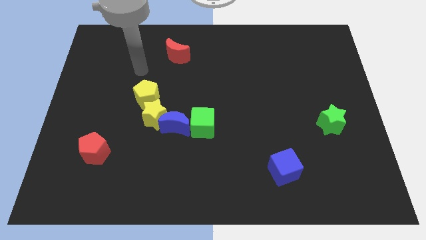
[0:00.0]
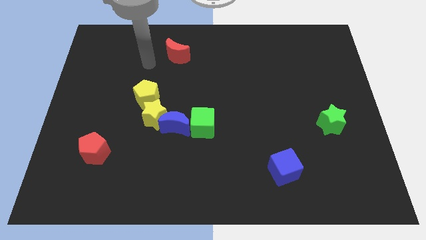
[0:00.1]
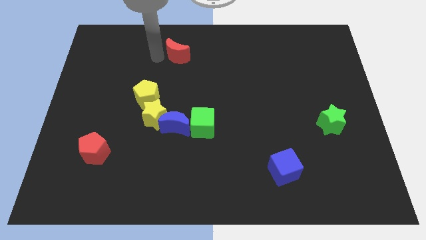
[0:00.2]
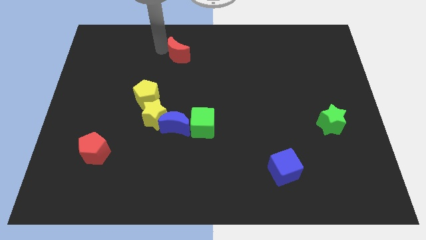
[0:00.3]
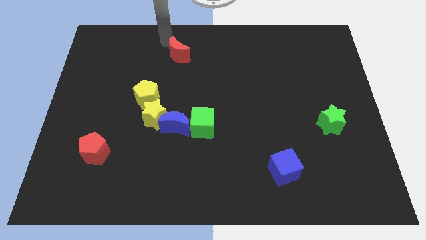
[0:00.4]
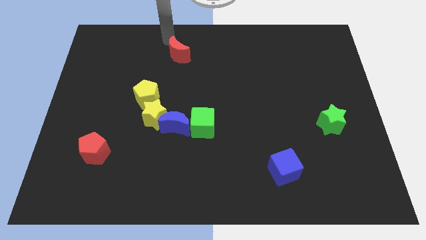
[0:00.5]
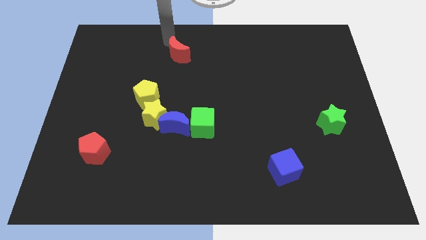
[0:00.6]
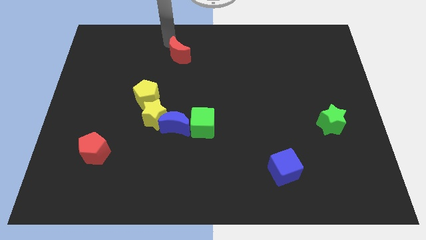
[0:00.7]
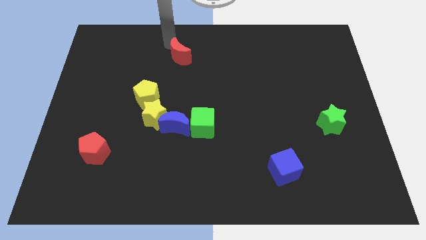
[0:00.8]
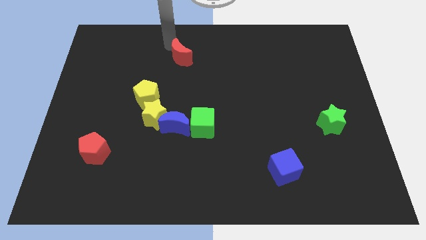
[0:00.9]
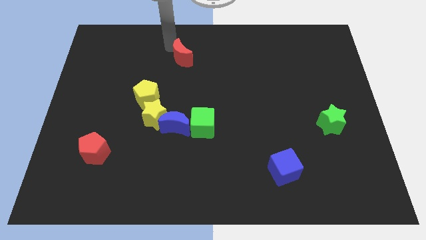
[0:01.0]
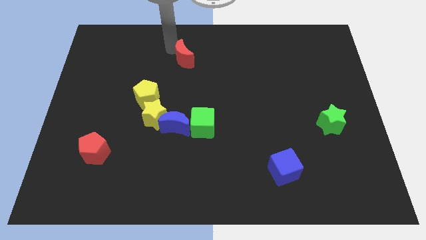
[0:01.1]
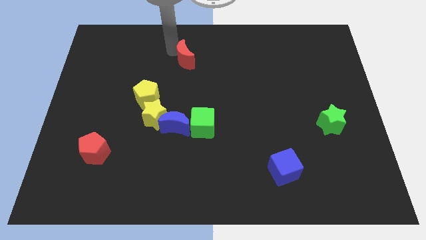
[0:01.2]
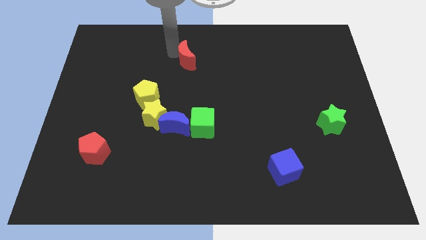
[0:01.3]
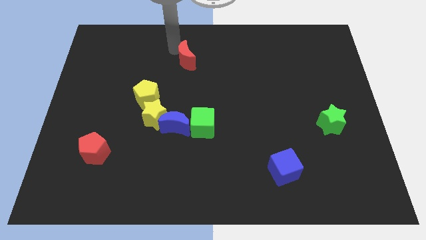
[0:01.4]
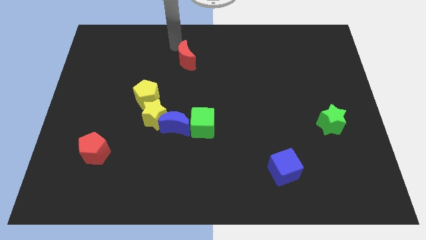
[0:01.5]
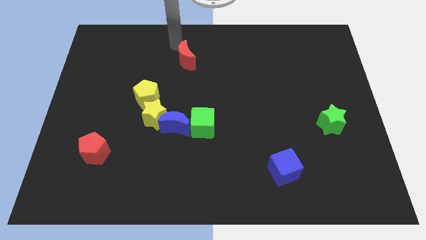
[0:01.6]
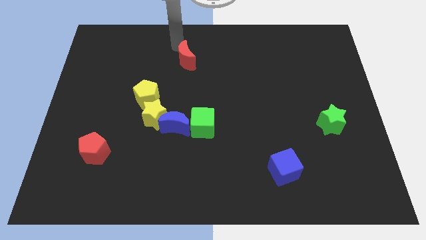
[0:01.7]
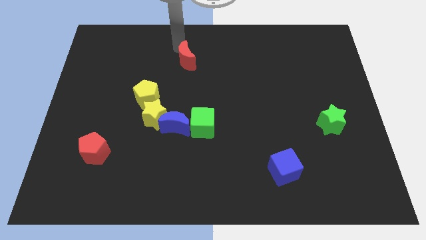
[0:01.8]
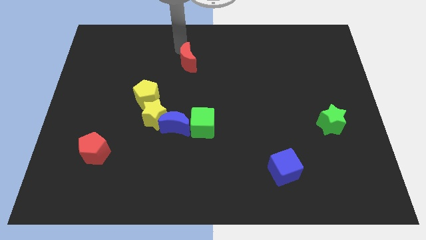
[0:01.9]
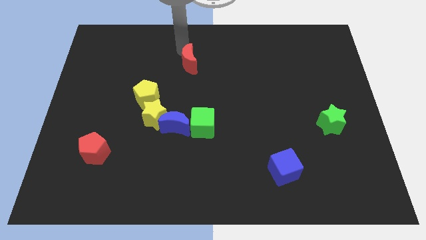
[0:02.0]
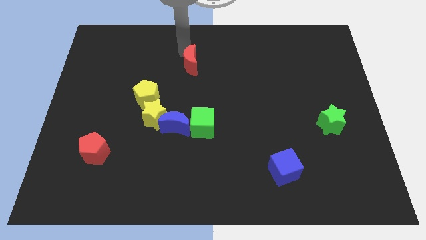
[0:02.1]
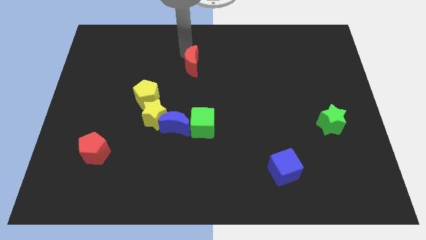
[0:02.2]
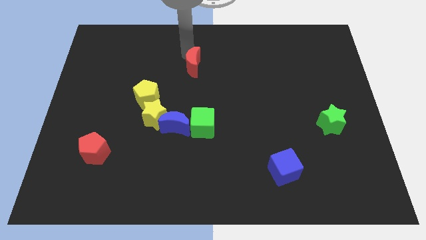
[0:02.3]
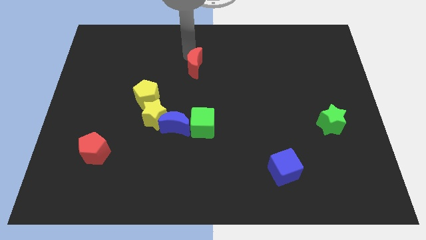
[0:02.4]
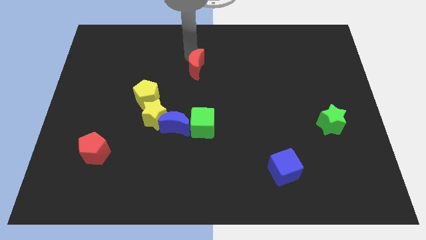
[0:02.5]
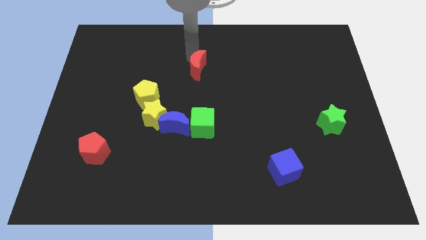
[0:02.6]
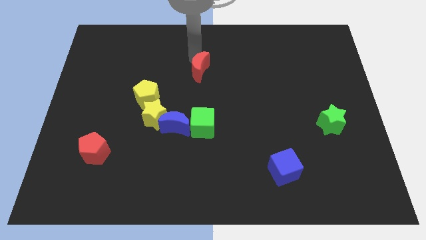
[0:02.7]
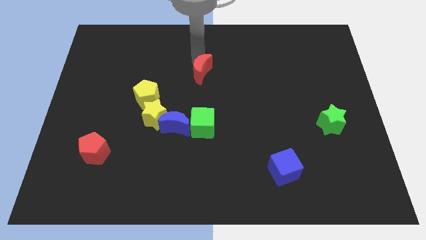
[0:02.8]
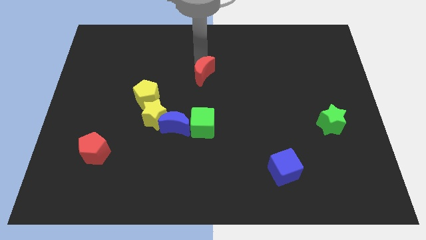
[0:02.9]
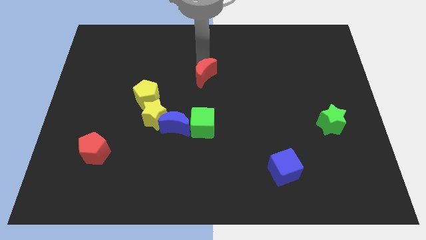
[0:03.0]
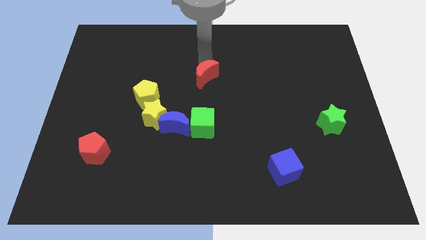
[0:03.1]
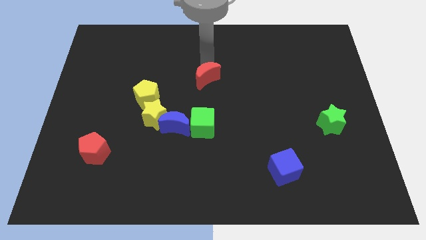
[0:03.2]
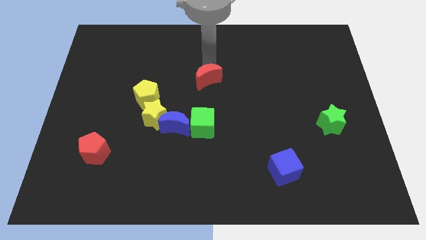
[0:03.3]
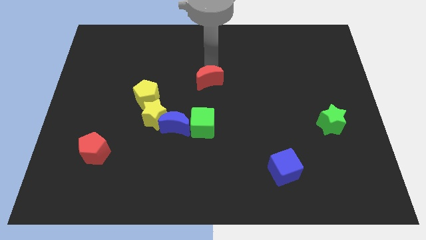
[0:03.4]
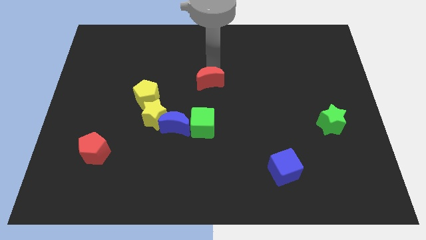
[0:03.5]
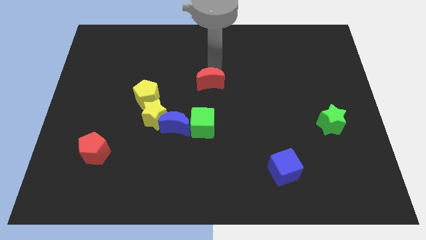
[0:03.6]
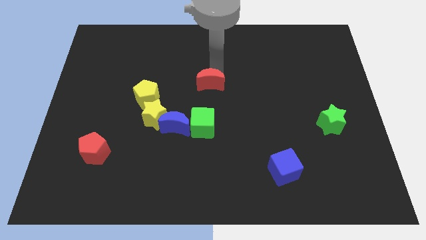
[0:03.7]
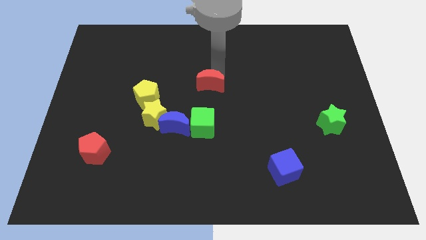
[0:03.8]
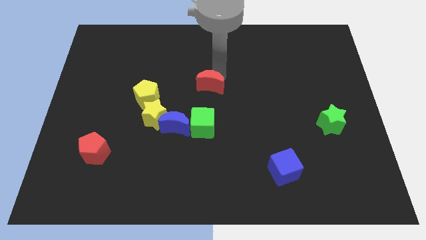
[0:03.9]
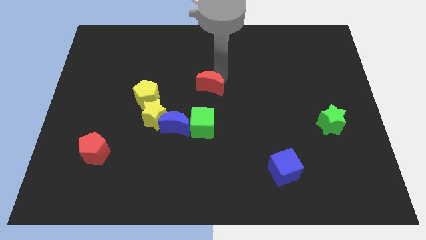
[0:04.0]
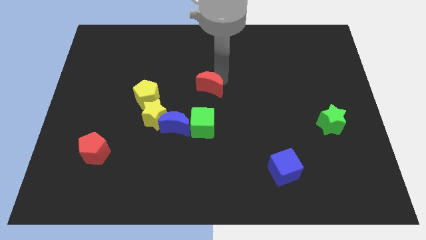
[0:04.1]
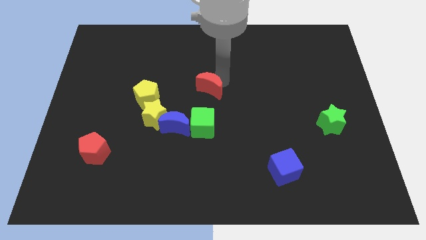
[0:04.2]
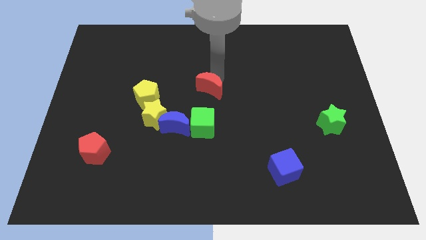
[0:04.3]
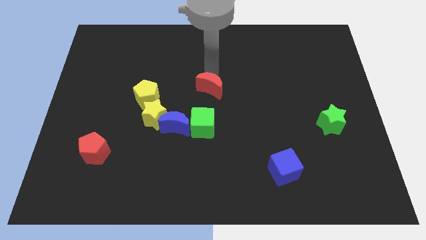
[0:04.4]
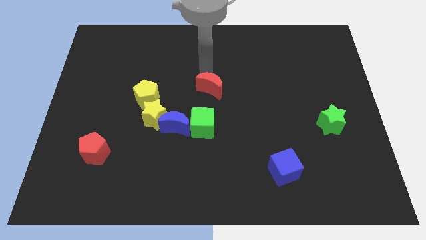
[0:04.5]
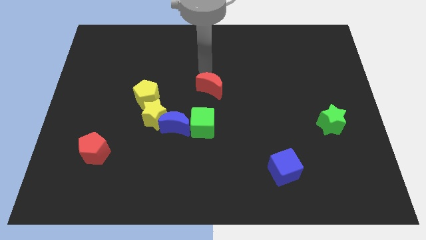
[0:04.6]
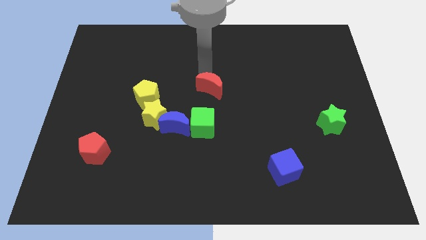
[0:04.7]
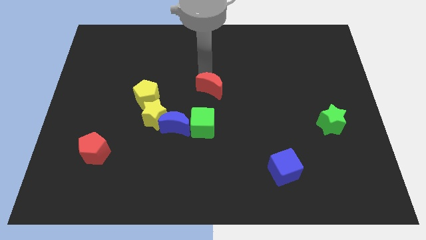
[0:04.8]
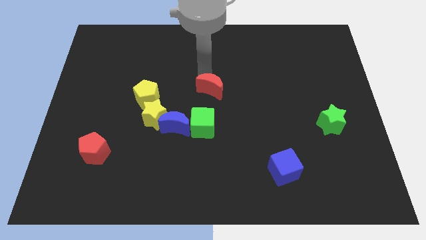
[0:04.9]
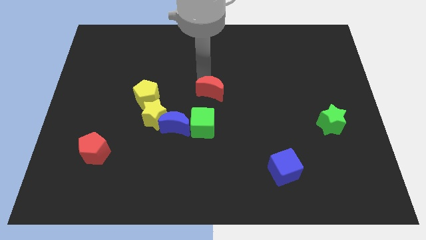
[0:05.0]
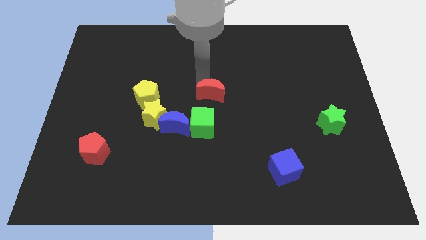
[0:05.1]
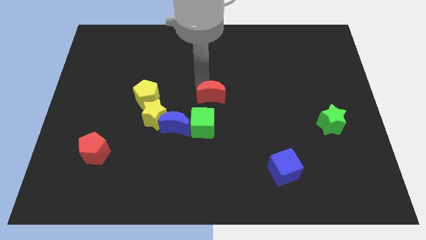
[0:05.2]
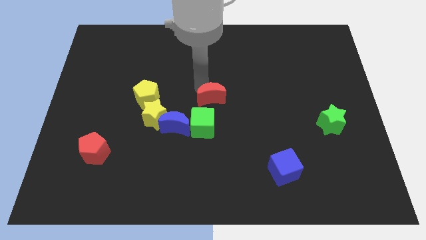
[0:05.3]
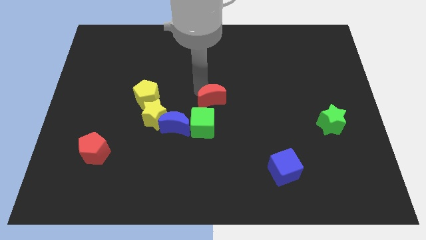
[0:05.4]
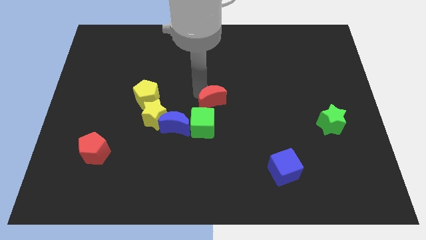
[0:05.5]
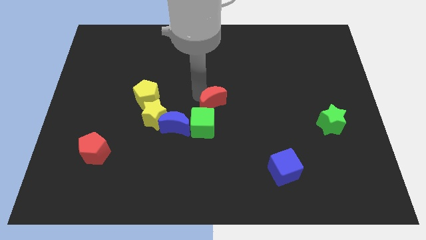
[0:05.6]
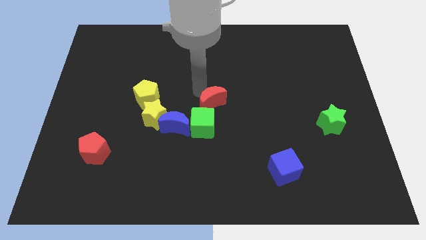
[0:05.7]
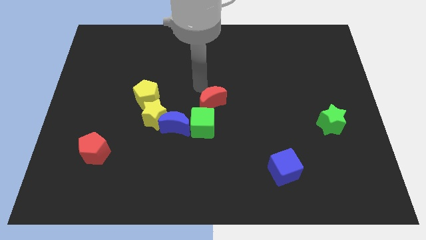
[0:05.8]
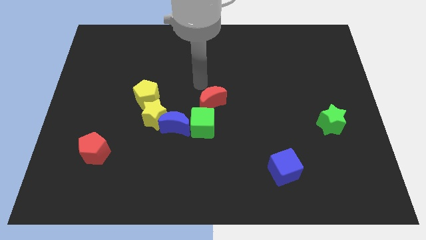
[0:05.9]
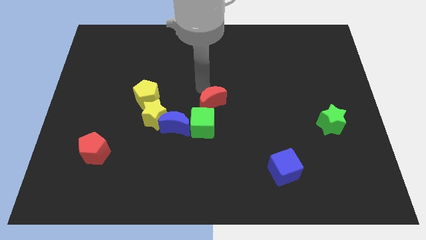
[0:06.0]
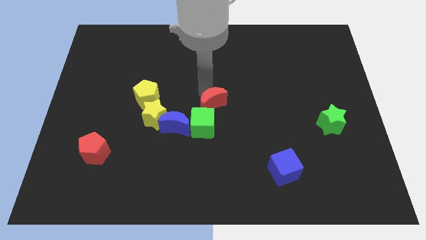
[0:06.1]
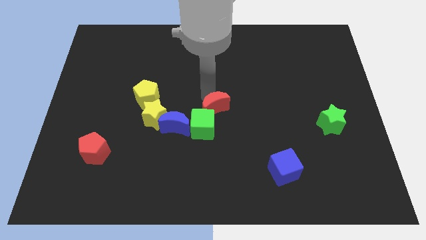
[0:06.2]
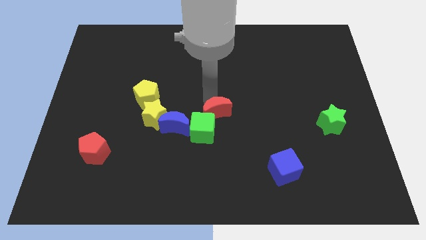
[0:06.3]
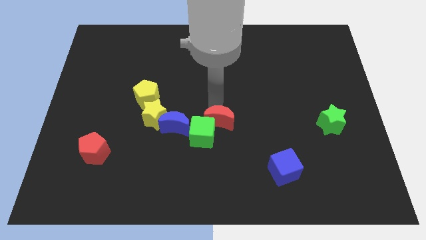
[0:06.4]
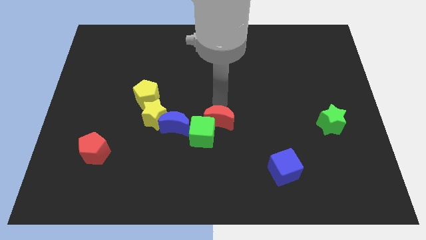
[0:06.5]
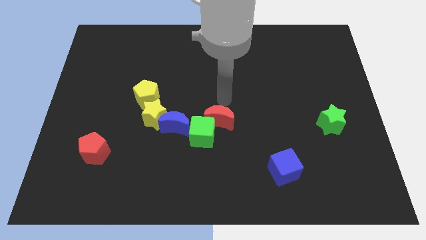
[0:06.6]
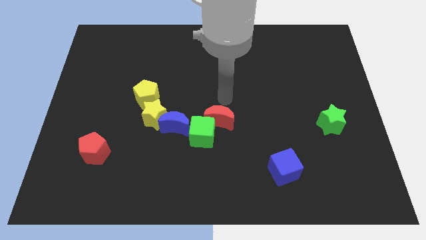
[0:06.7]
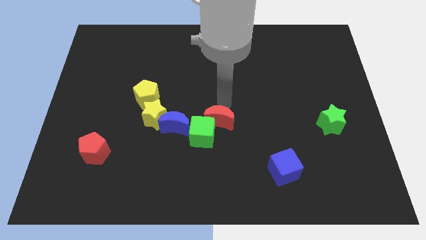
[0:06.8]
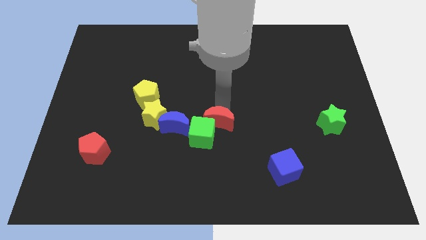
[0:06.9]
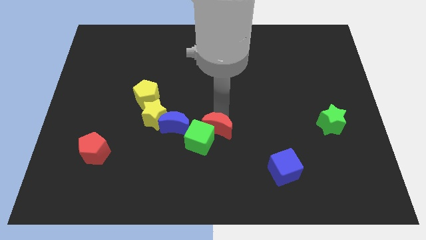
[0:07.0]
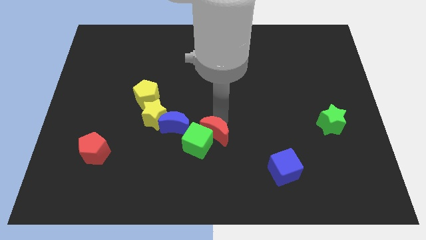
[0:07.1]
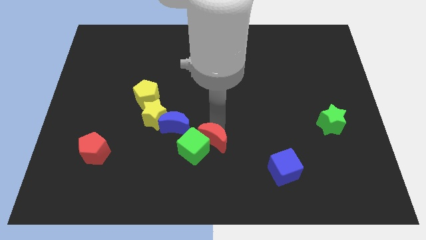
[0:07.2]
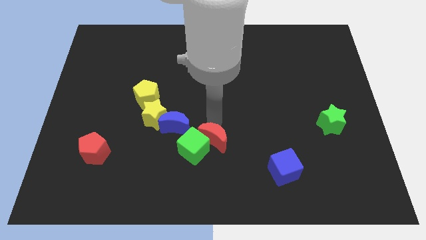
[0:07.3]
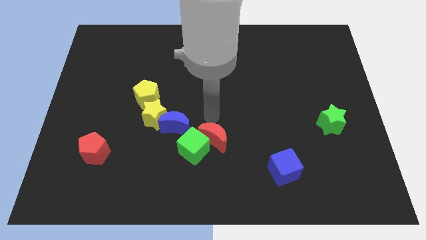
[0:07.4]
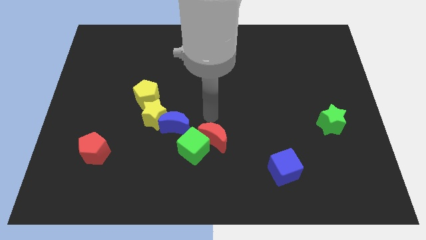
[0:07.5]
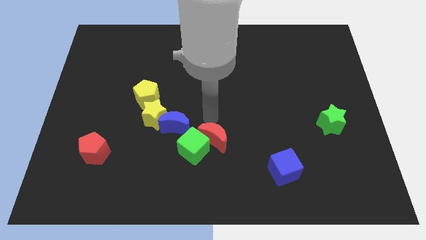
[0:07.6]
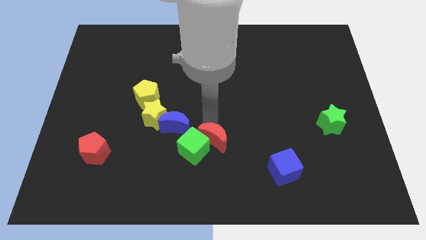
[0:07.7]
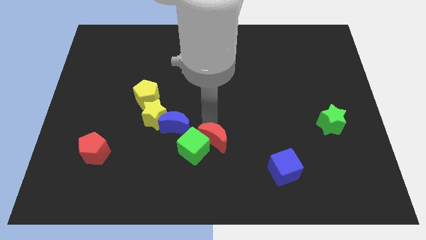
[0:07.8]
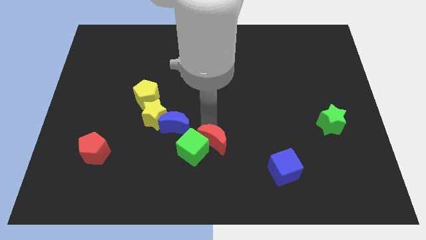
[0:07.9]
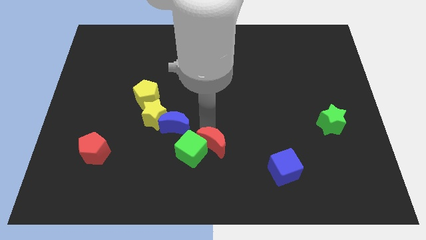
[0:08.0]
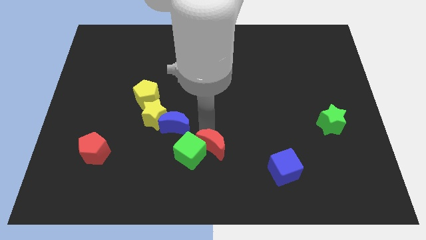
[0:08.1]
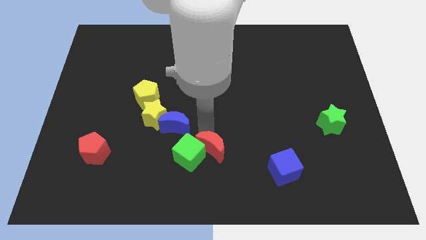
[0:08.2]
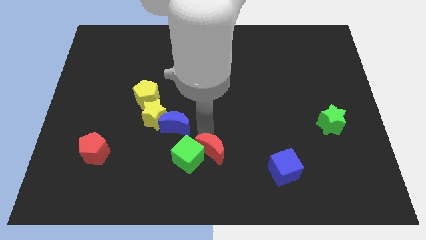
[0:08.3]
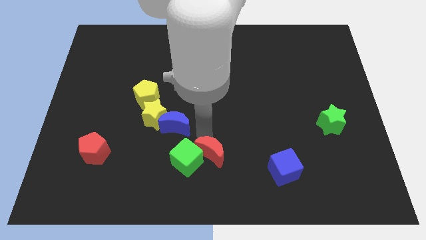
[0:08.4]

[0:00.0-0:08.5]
push the red moon to the bottom
